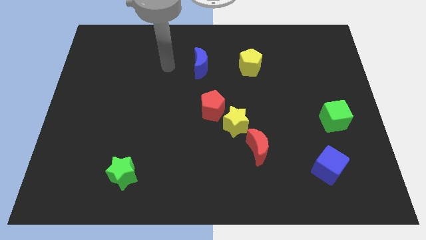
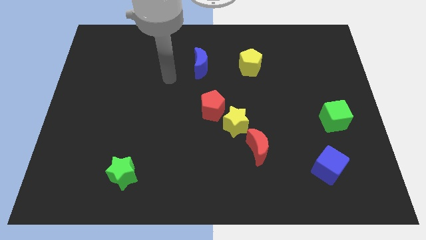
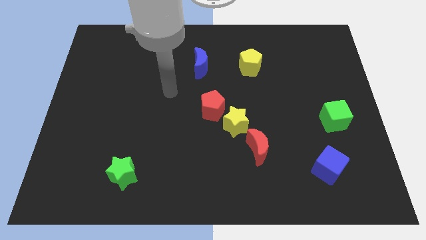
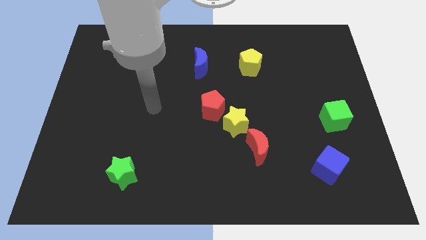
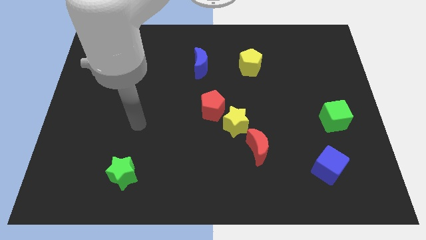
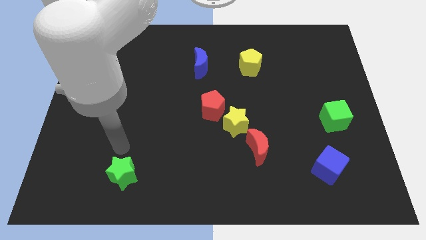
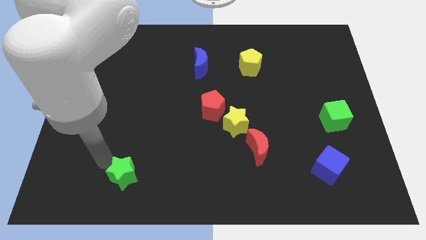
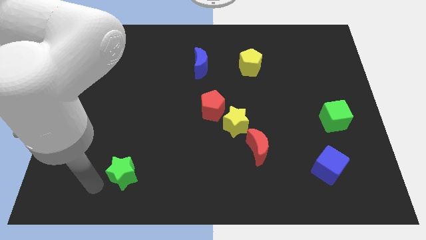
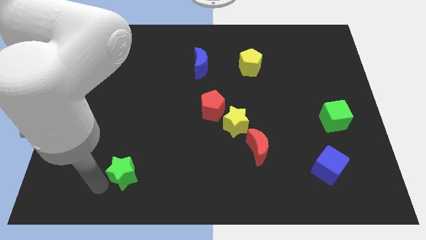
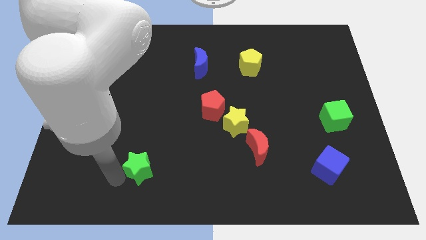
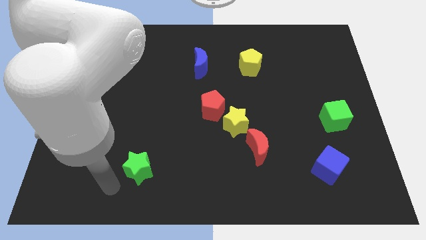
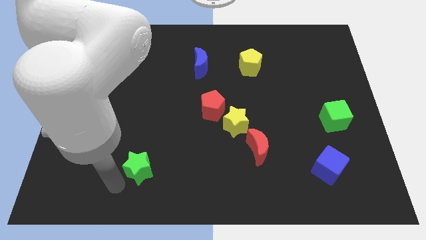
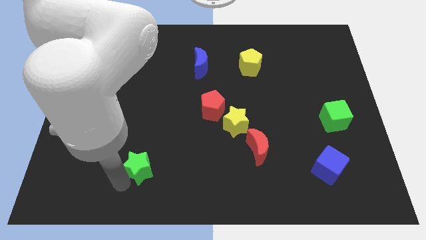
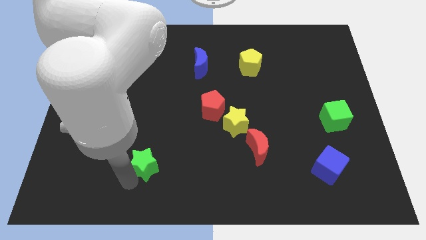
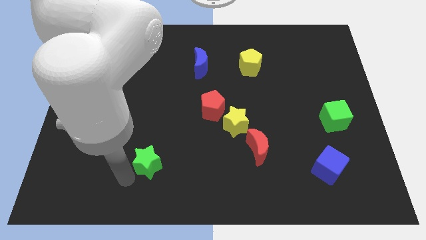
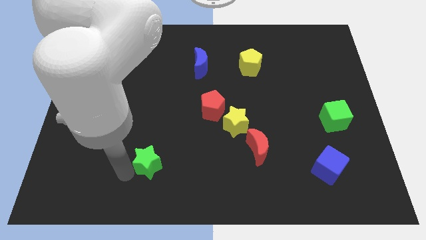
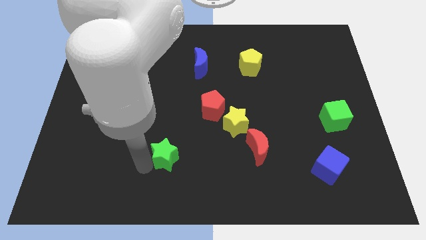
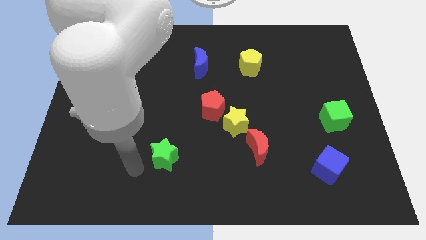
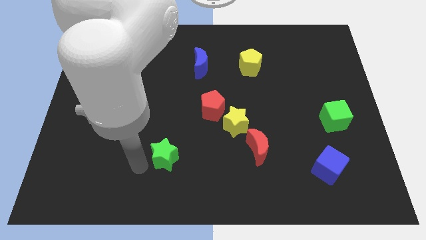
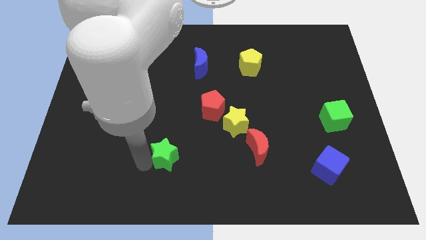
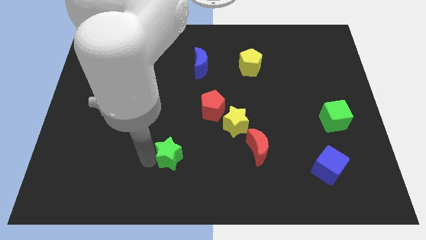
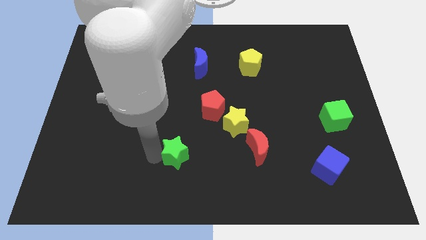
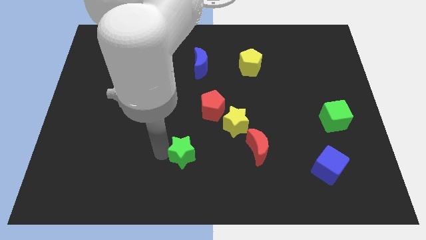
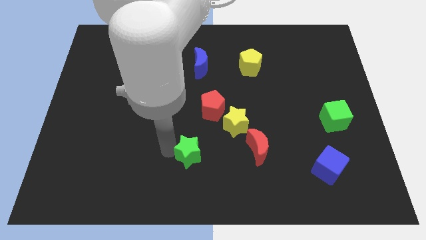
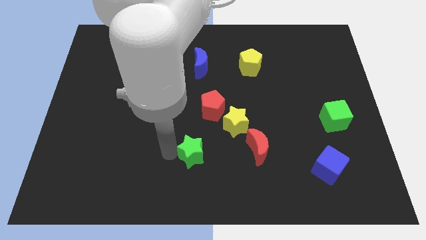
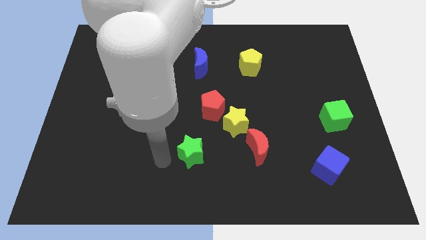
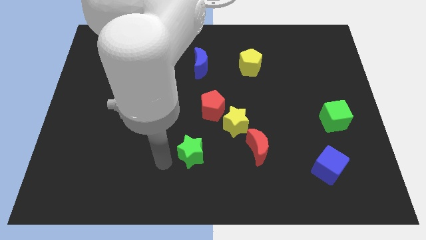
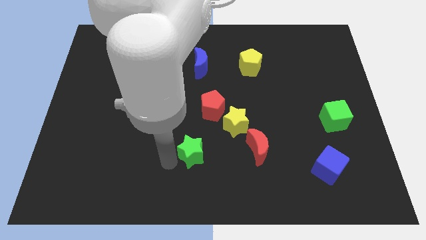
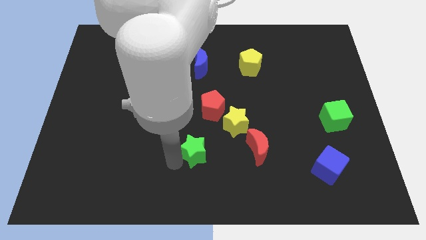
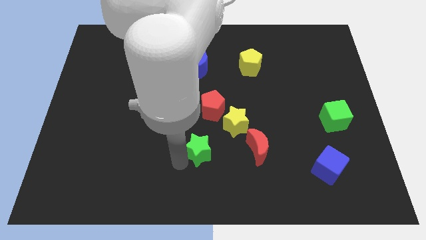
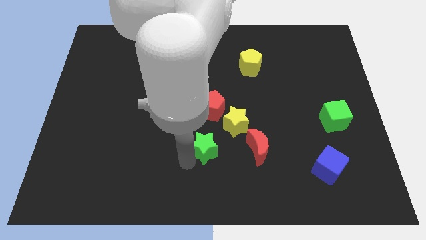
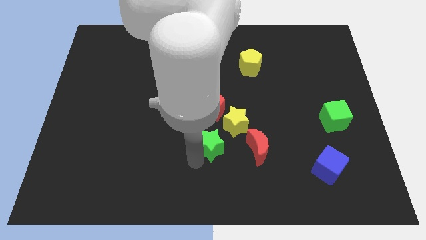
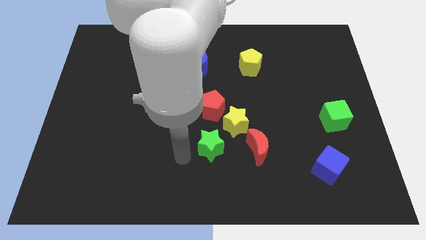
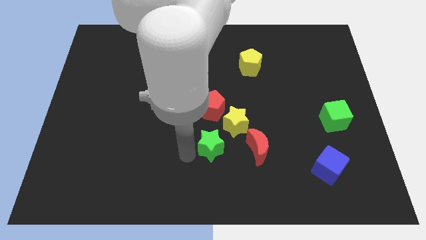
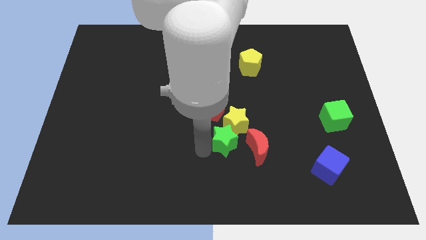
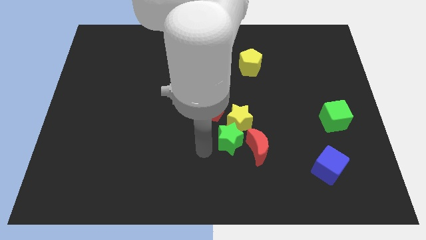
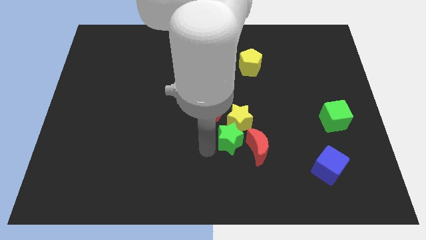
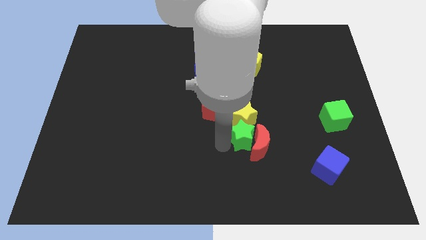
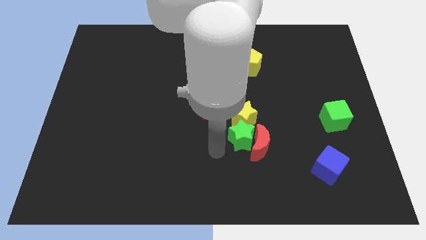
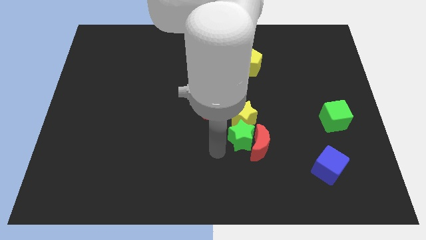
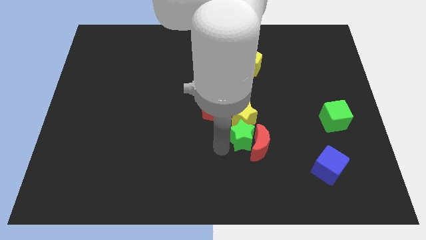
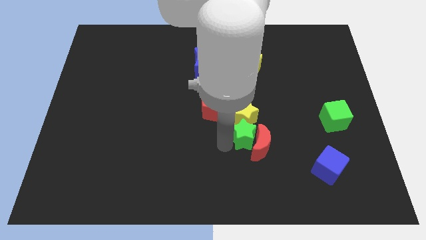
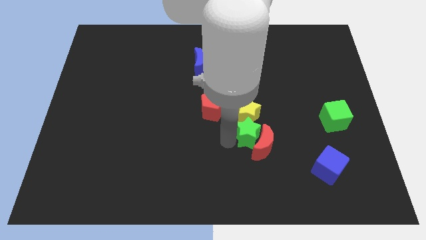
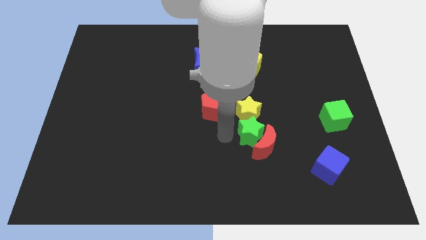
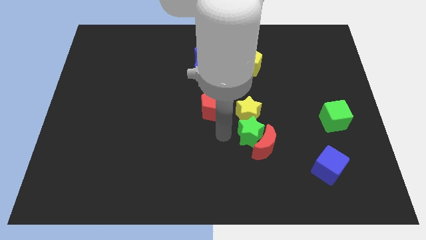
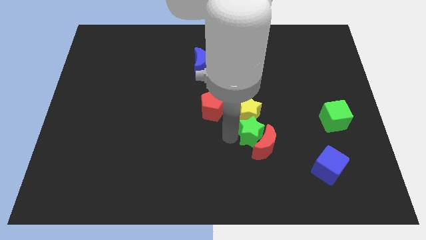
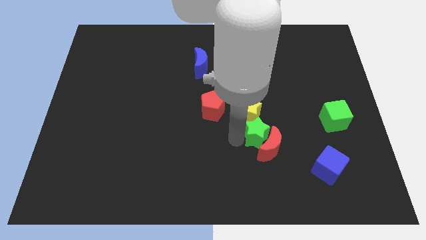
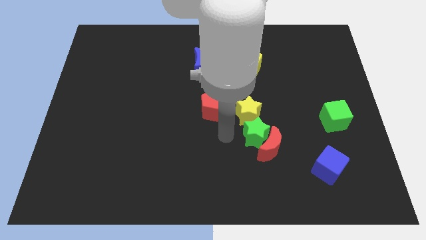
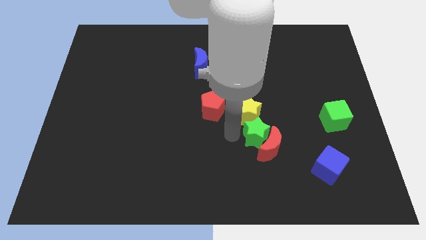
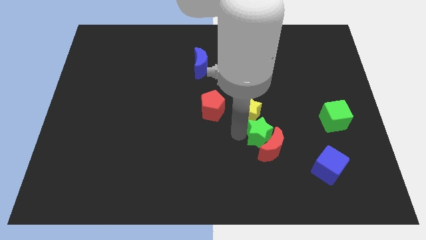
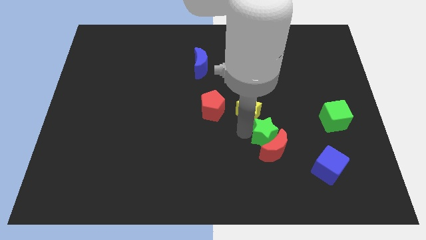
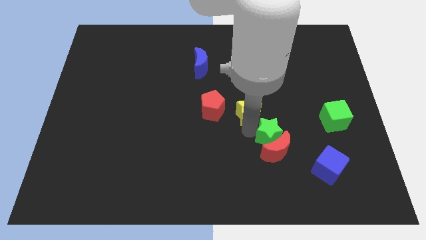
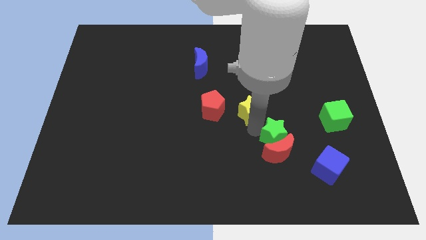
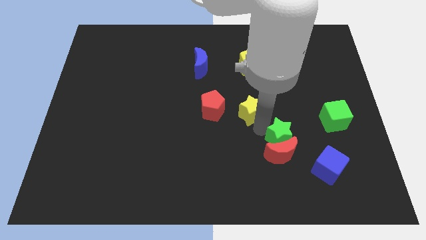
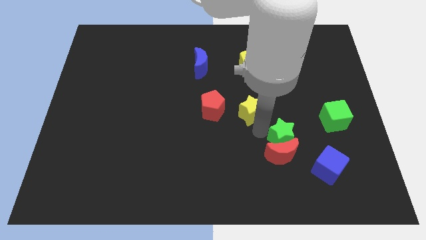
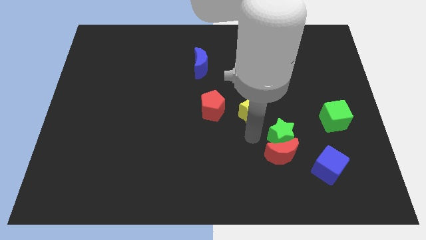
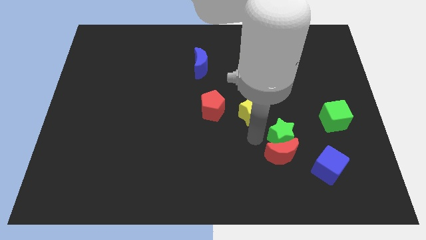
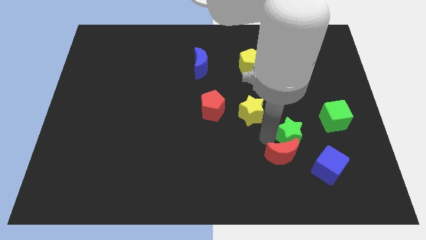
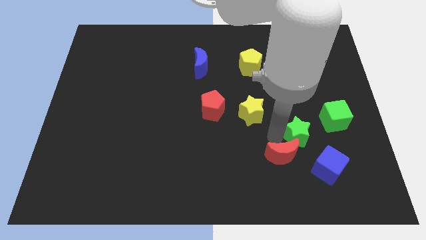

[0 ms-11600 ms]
put the green star to the bottom left of the green cube
